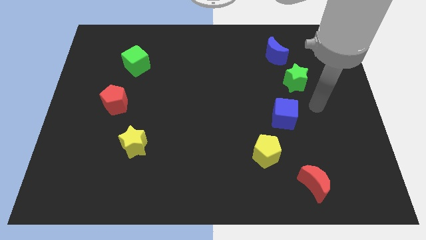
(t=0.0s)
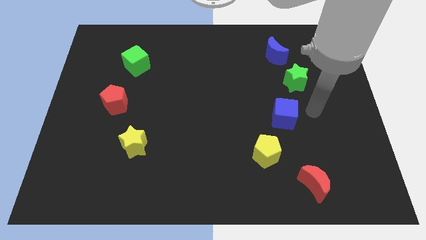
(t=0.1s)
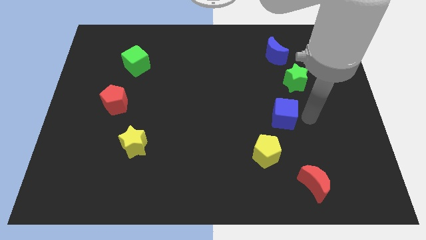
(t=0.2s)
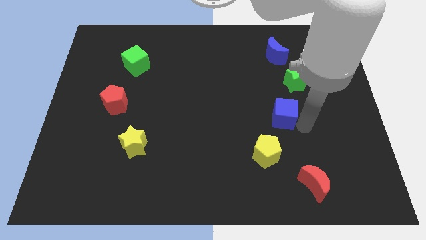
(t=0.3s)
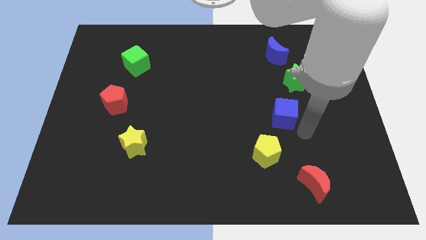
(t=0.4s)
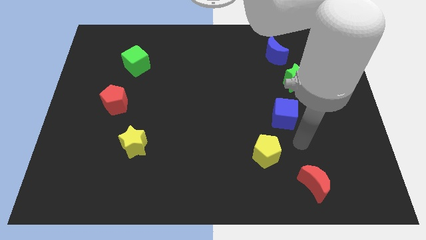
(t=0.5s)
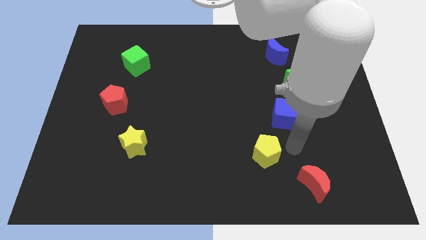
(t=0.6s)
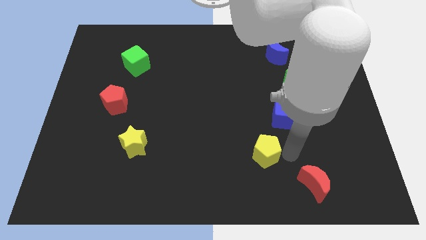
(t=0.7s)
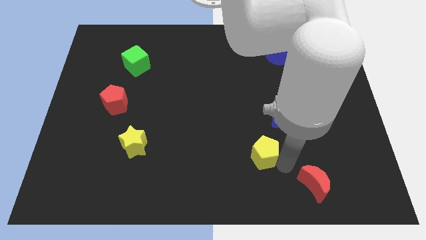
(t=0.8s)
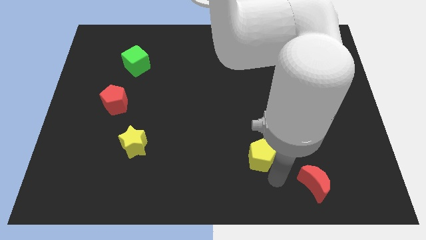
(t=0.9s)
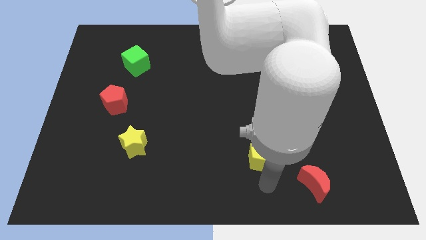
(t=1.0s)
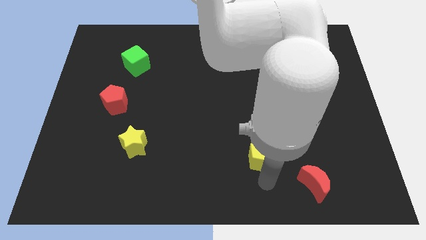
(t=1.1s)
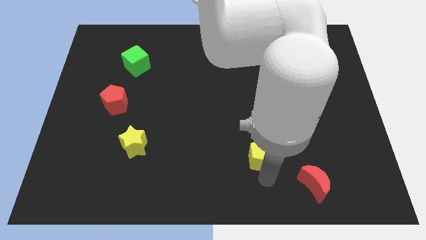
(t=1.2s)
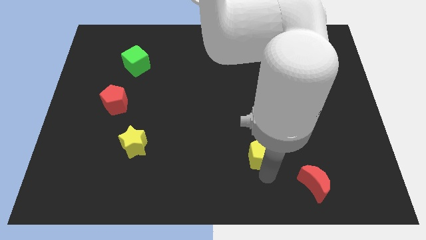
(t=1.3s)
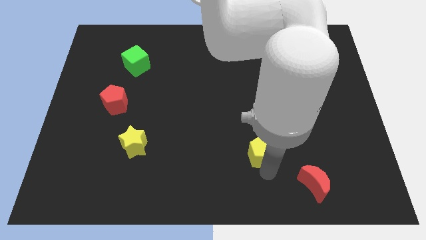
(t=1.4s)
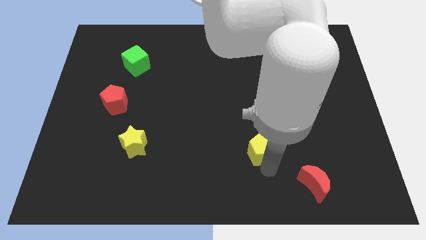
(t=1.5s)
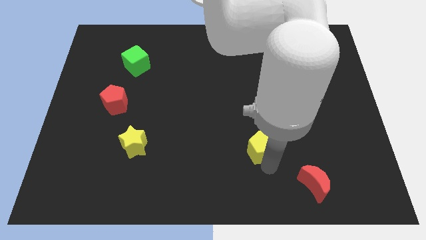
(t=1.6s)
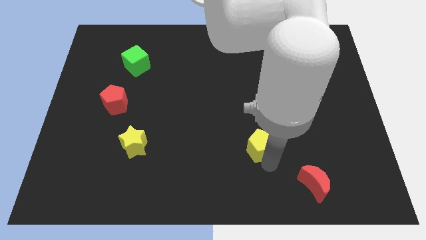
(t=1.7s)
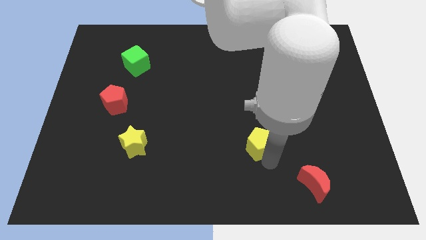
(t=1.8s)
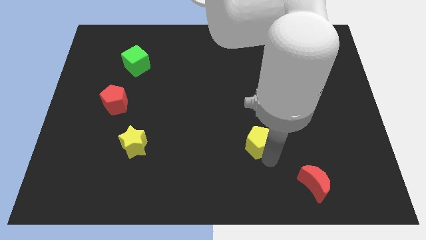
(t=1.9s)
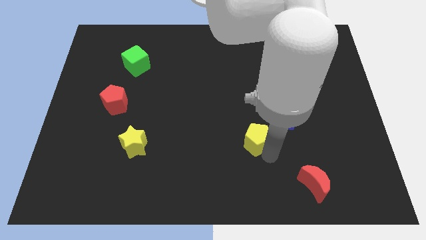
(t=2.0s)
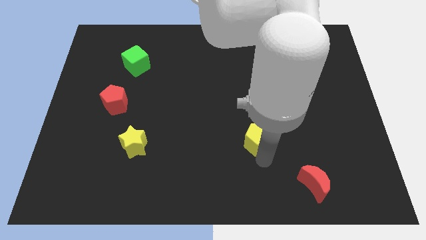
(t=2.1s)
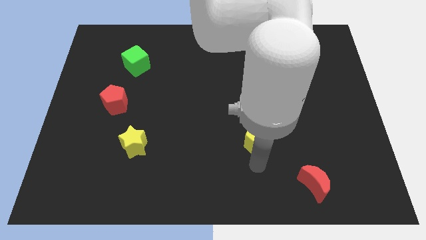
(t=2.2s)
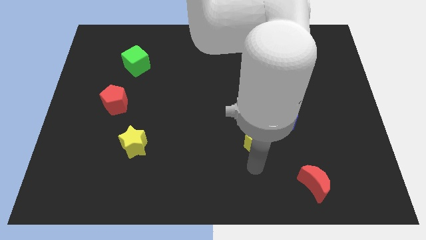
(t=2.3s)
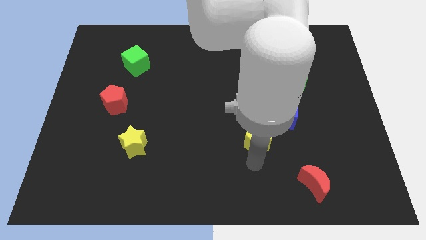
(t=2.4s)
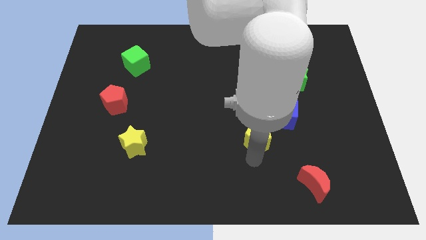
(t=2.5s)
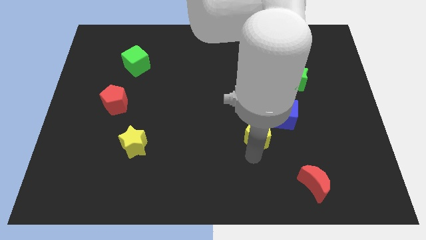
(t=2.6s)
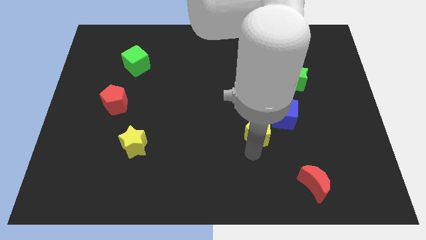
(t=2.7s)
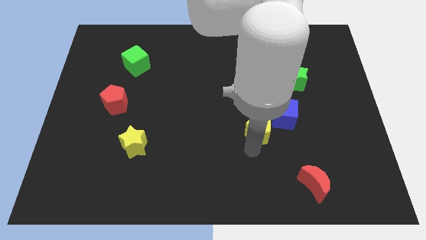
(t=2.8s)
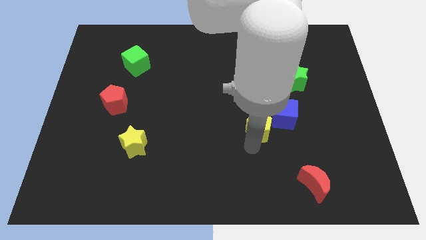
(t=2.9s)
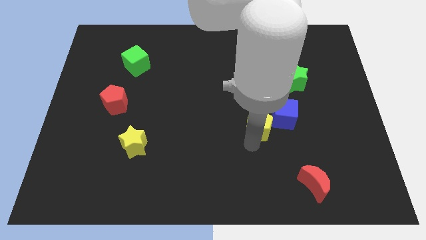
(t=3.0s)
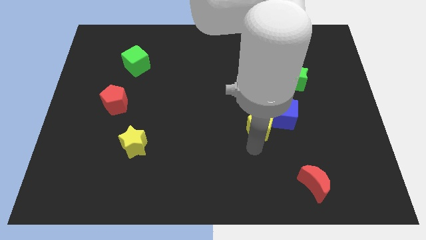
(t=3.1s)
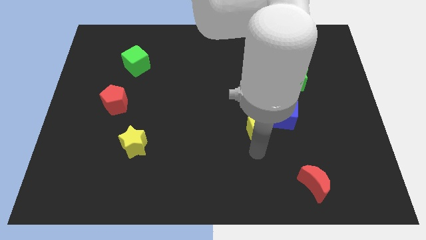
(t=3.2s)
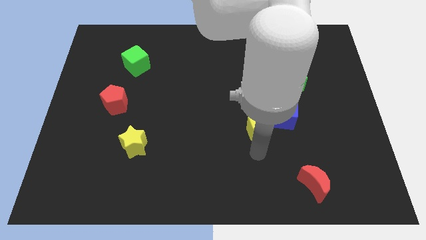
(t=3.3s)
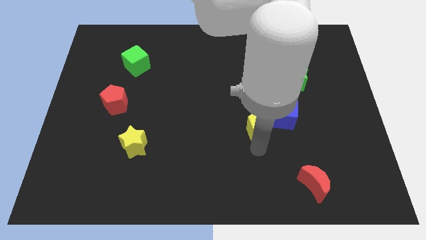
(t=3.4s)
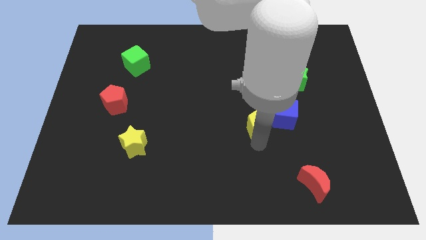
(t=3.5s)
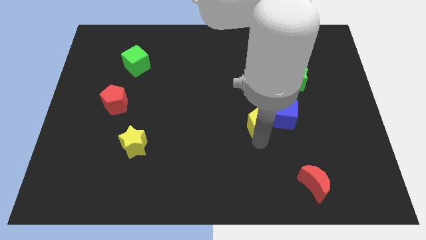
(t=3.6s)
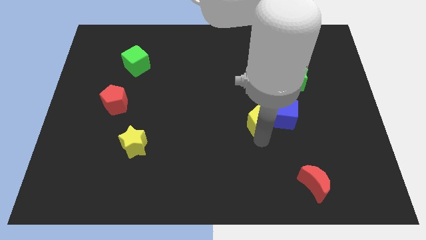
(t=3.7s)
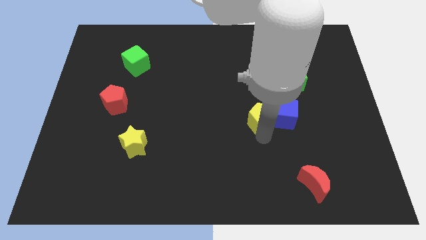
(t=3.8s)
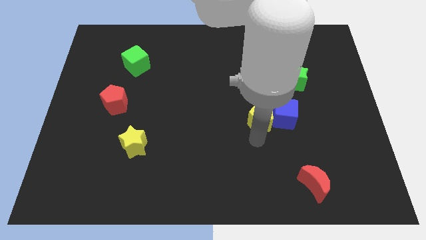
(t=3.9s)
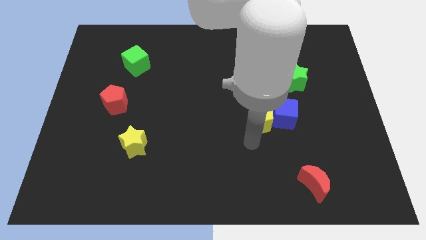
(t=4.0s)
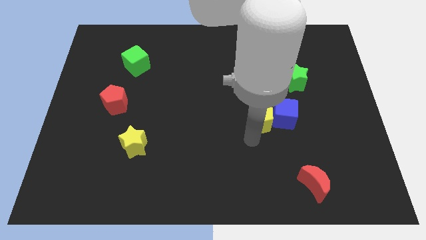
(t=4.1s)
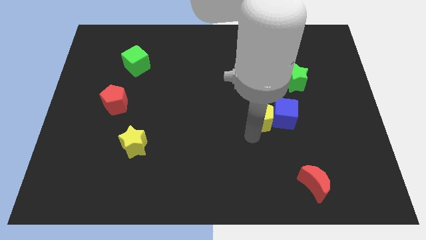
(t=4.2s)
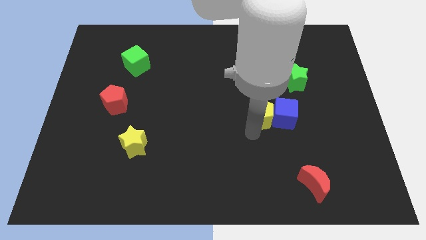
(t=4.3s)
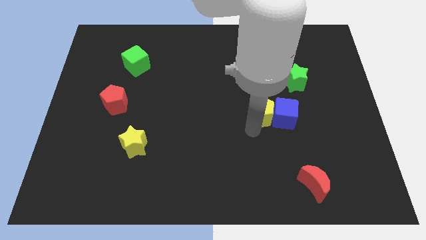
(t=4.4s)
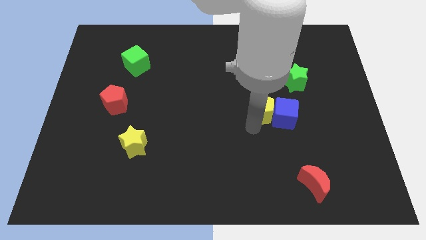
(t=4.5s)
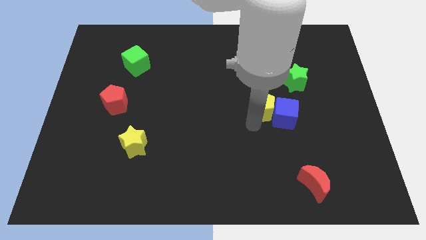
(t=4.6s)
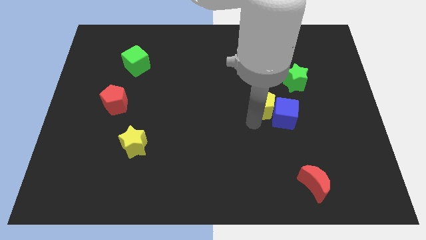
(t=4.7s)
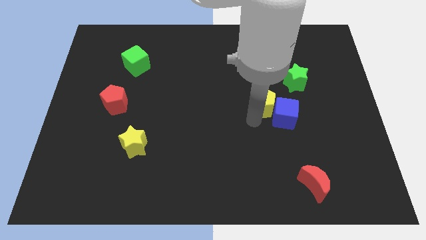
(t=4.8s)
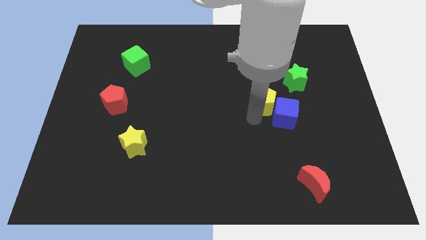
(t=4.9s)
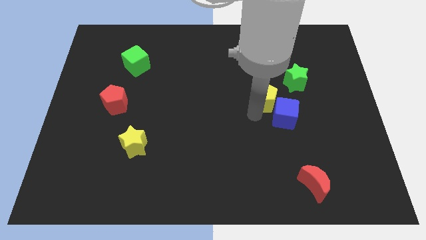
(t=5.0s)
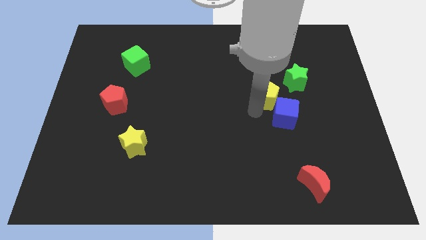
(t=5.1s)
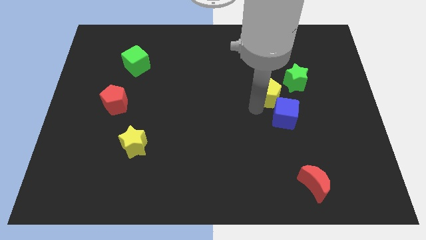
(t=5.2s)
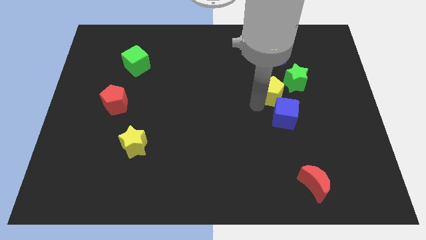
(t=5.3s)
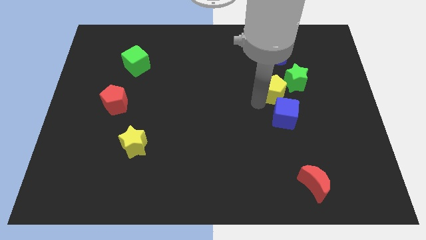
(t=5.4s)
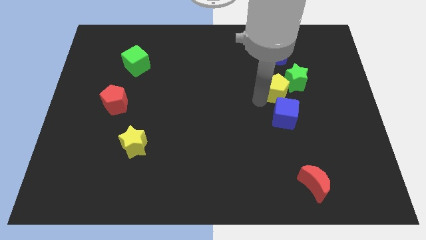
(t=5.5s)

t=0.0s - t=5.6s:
put the yellow pentagon to the green star
